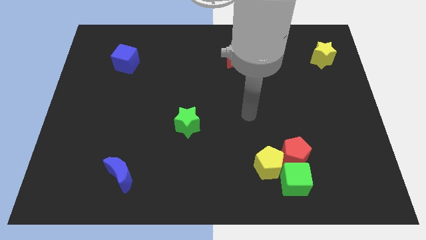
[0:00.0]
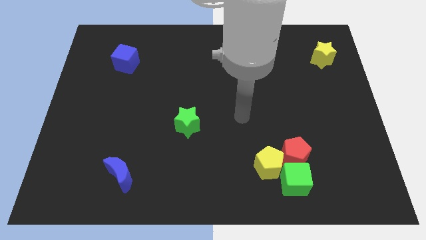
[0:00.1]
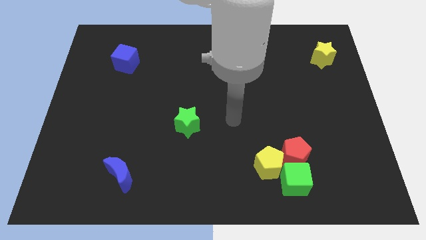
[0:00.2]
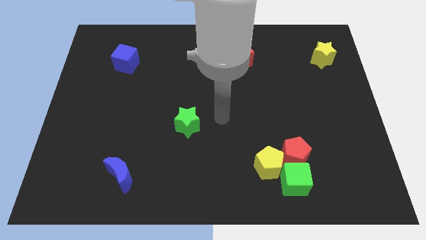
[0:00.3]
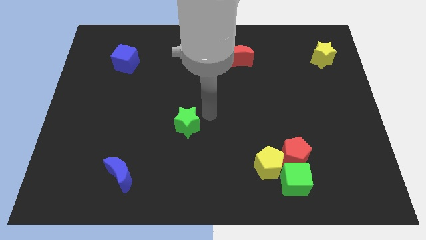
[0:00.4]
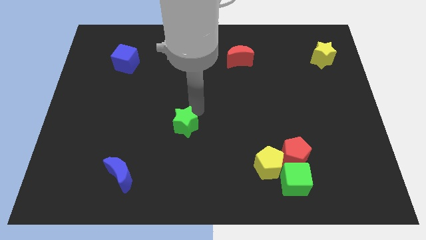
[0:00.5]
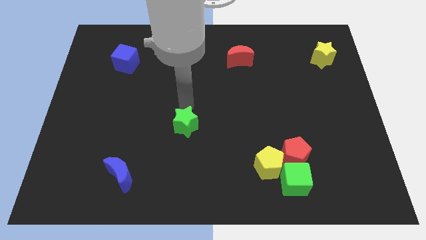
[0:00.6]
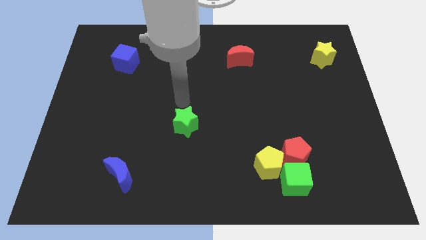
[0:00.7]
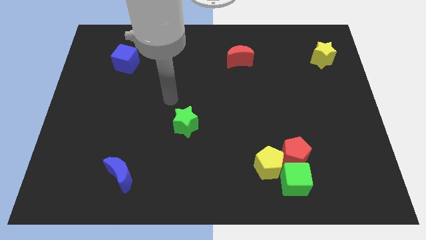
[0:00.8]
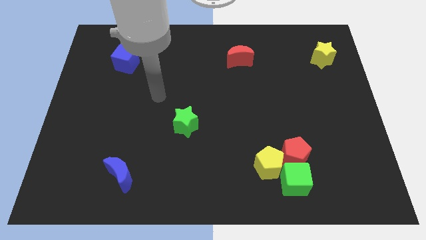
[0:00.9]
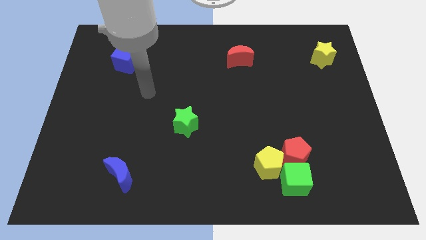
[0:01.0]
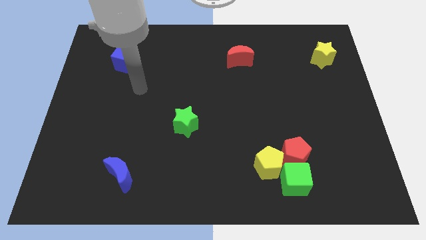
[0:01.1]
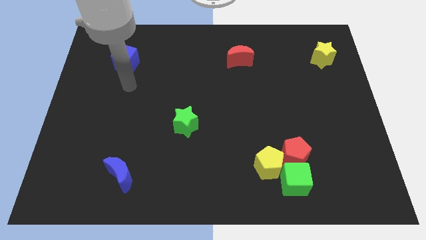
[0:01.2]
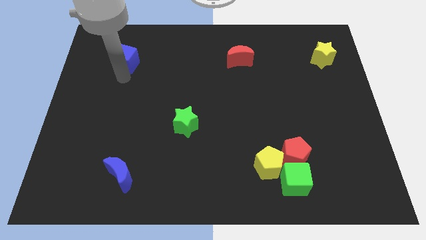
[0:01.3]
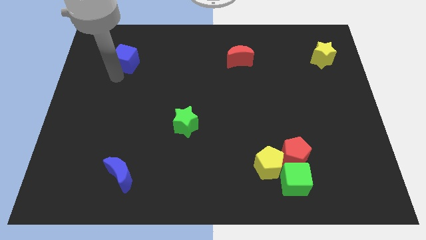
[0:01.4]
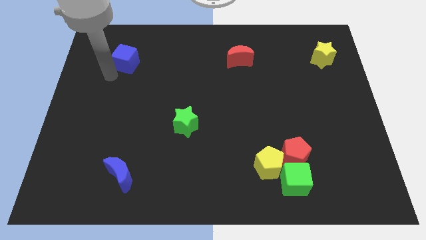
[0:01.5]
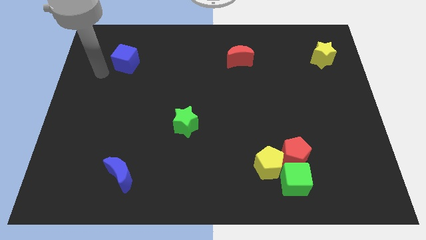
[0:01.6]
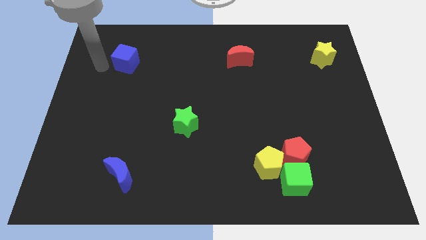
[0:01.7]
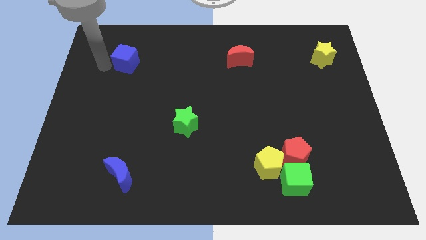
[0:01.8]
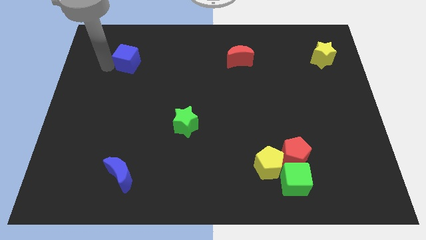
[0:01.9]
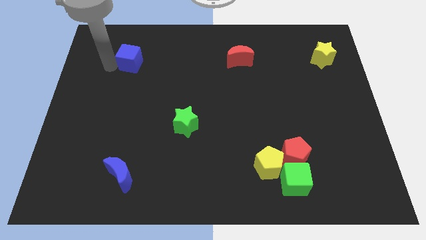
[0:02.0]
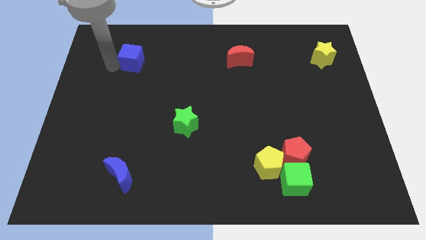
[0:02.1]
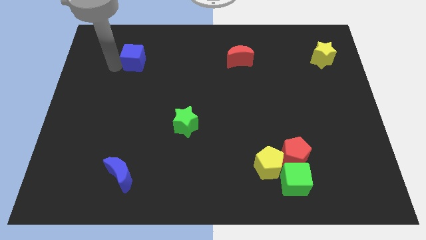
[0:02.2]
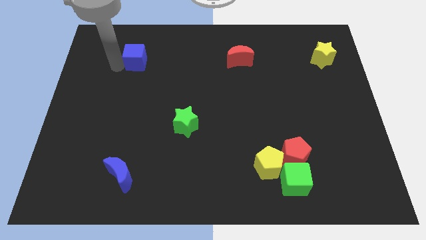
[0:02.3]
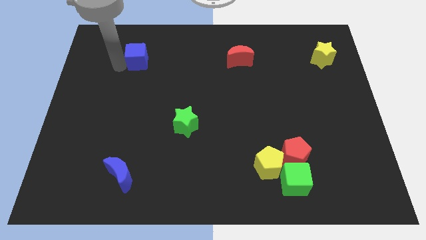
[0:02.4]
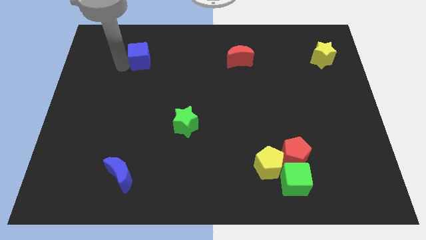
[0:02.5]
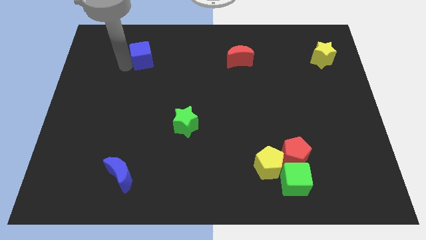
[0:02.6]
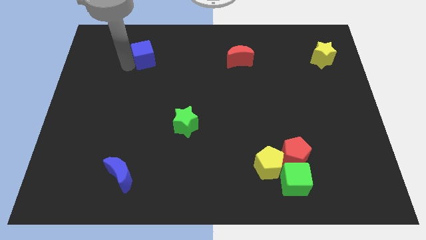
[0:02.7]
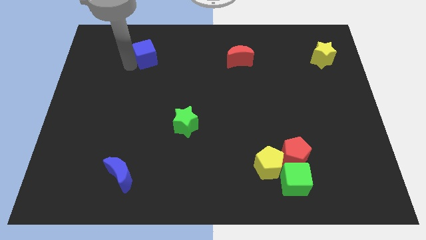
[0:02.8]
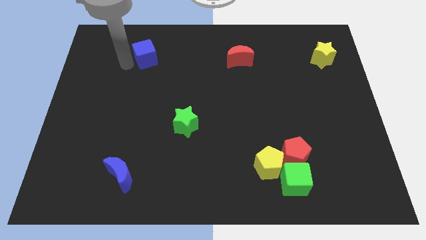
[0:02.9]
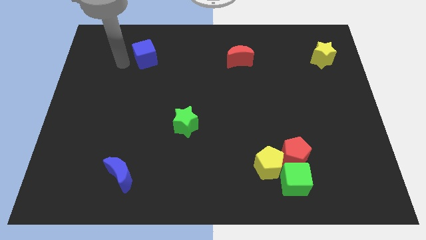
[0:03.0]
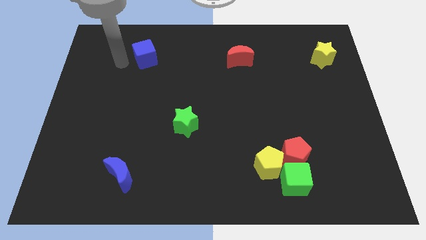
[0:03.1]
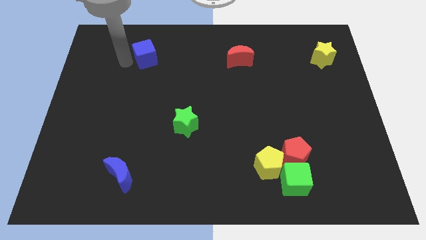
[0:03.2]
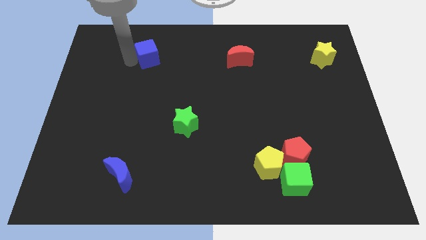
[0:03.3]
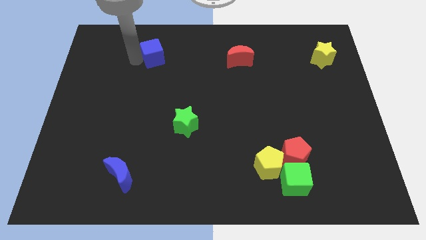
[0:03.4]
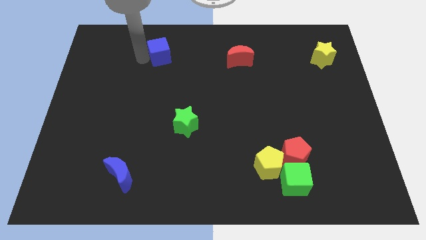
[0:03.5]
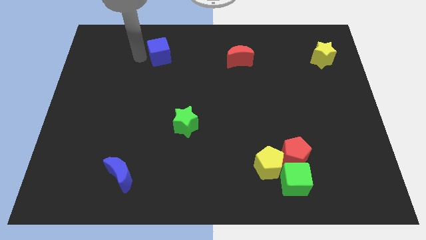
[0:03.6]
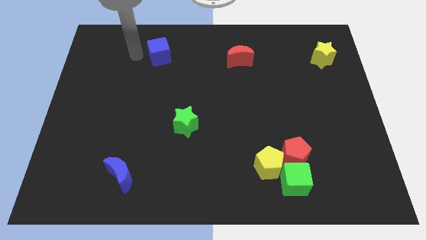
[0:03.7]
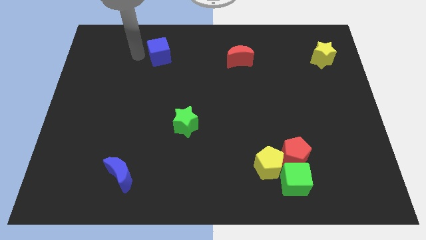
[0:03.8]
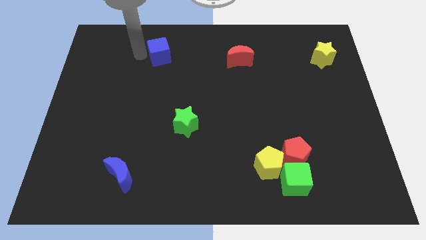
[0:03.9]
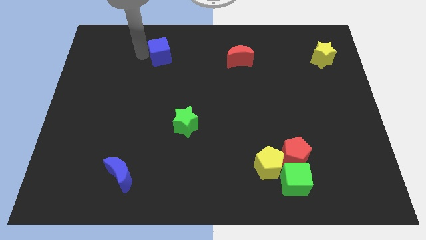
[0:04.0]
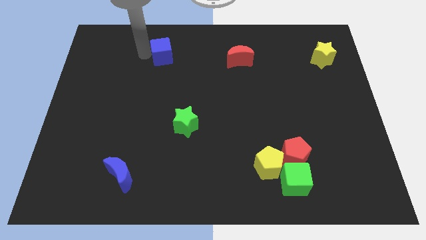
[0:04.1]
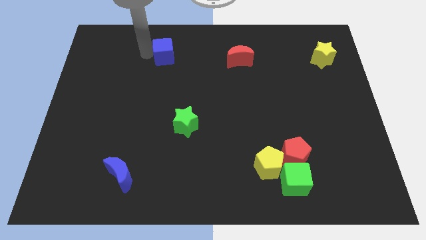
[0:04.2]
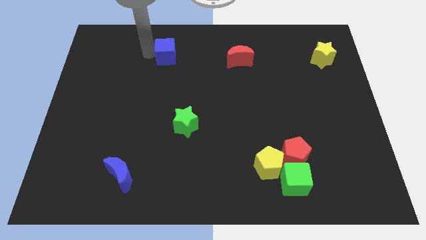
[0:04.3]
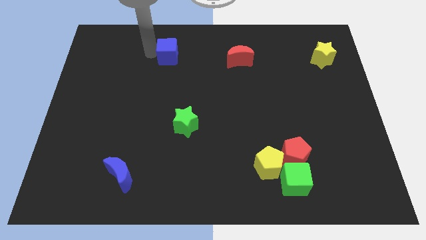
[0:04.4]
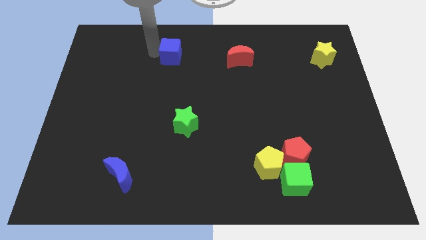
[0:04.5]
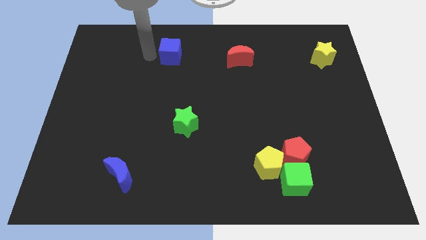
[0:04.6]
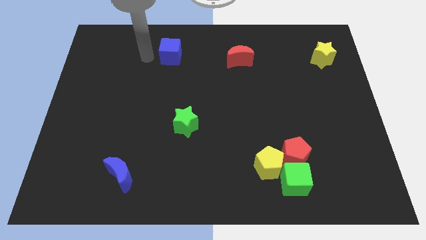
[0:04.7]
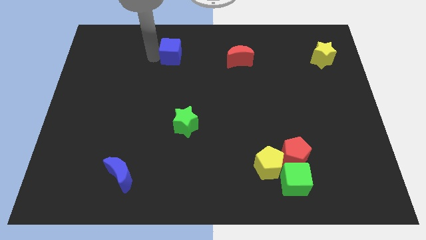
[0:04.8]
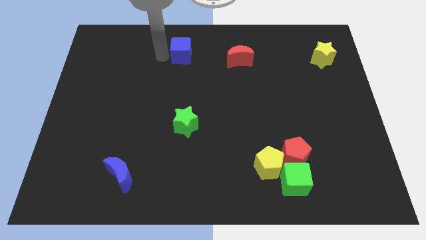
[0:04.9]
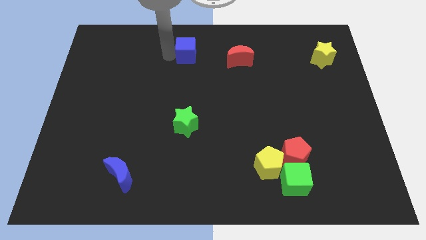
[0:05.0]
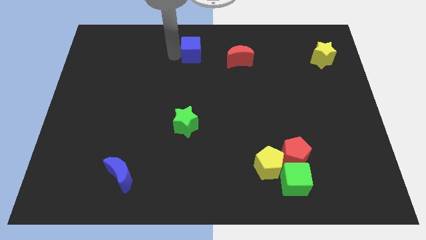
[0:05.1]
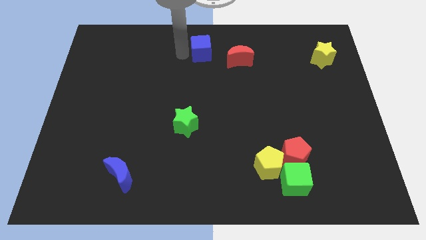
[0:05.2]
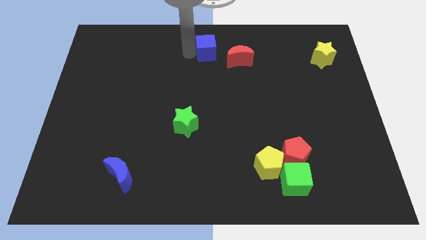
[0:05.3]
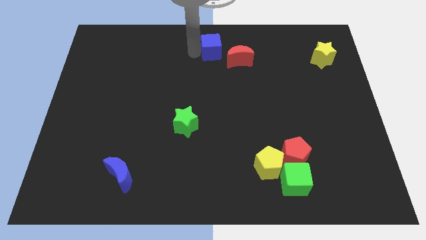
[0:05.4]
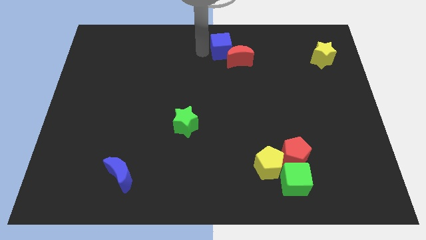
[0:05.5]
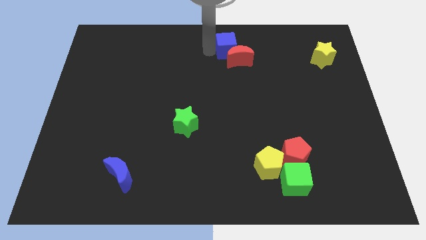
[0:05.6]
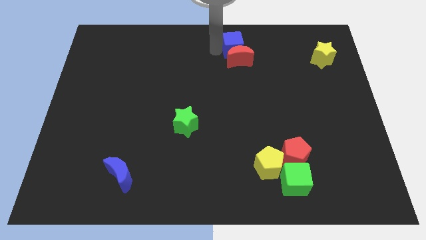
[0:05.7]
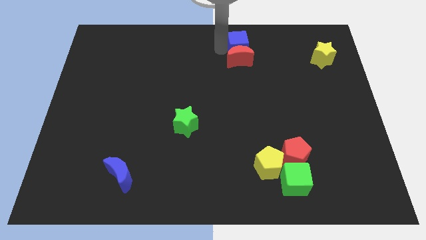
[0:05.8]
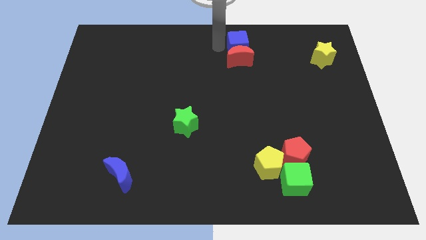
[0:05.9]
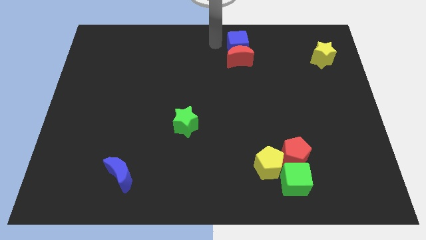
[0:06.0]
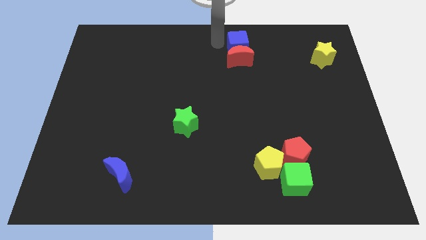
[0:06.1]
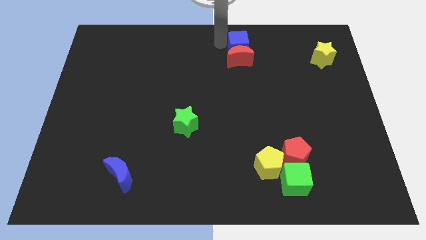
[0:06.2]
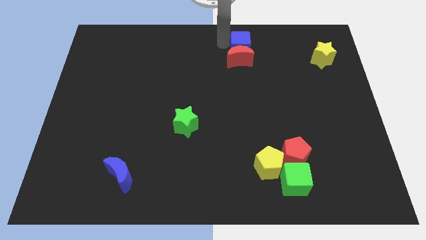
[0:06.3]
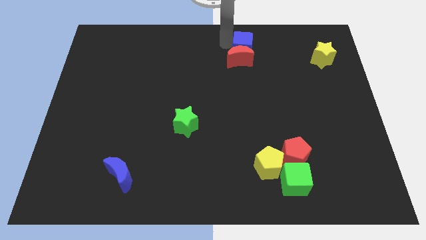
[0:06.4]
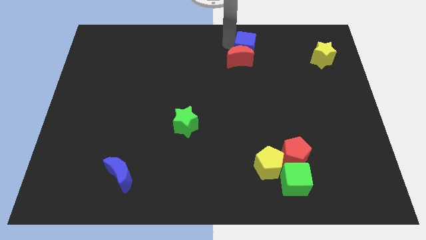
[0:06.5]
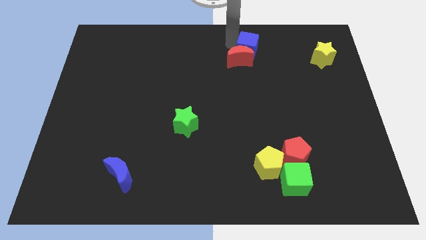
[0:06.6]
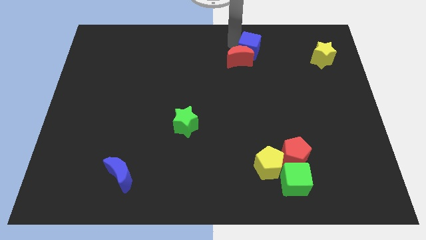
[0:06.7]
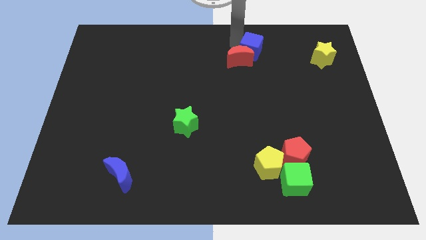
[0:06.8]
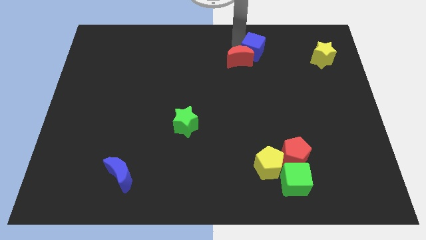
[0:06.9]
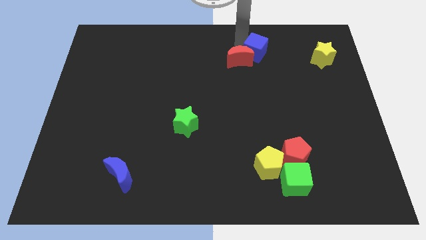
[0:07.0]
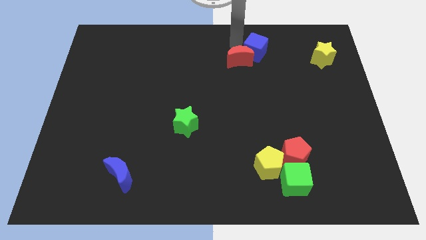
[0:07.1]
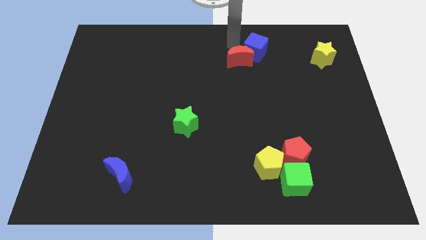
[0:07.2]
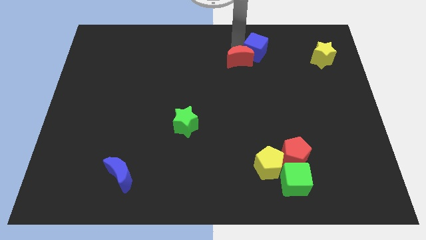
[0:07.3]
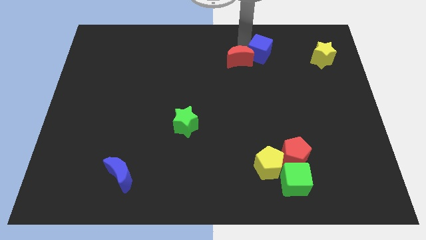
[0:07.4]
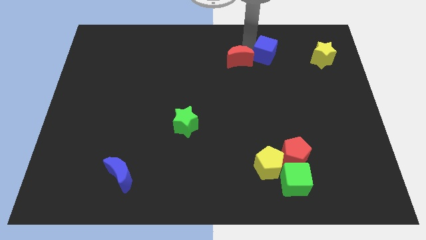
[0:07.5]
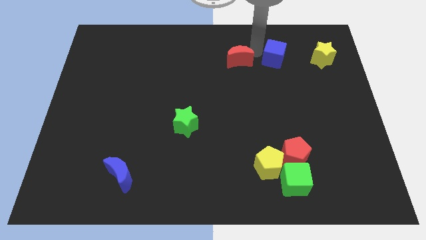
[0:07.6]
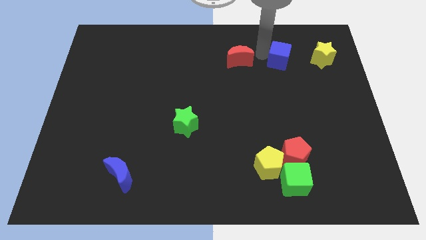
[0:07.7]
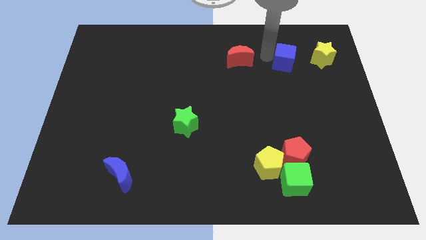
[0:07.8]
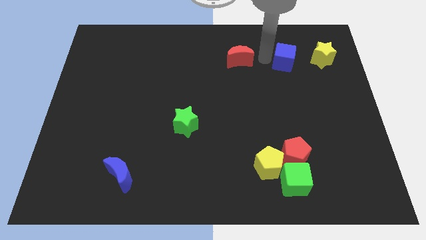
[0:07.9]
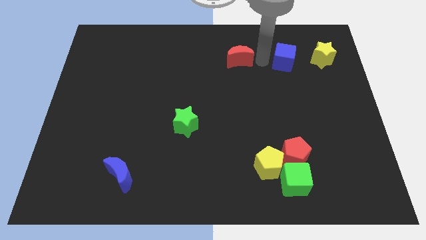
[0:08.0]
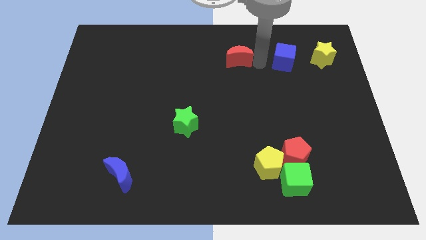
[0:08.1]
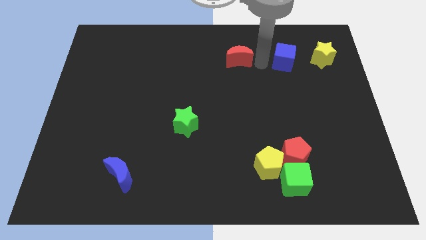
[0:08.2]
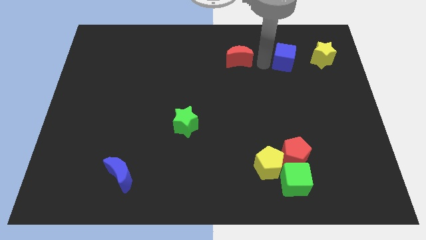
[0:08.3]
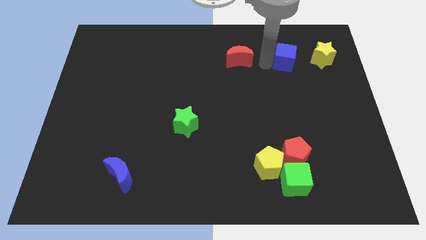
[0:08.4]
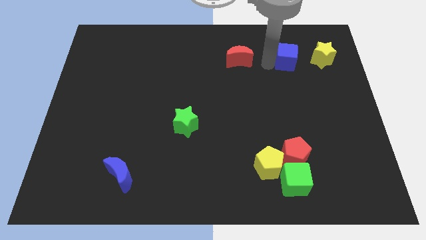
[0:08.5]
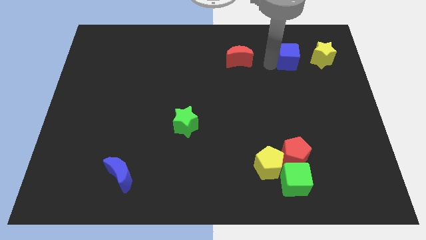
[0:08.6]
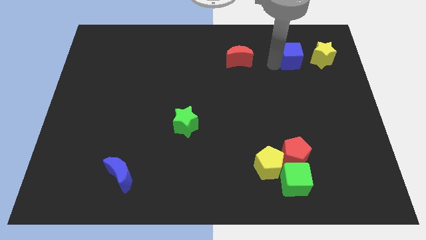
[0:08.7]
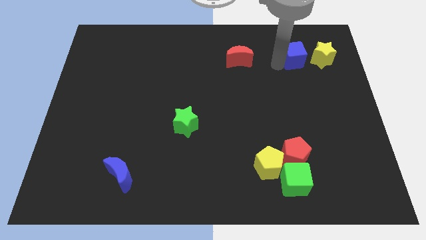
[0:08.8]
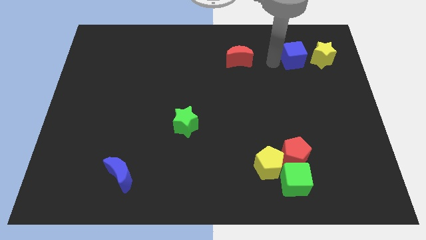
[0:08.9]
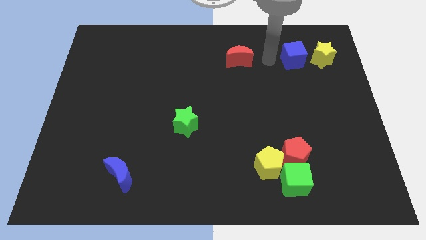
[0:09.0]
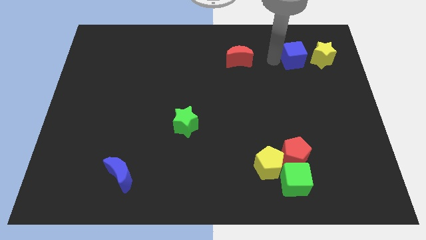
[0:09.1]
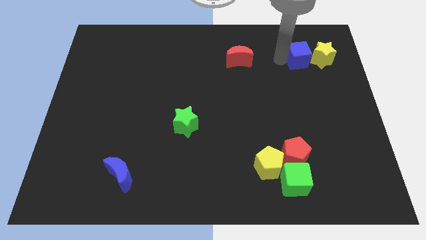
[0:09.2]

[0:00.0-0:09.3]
put the blue cube to the yellow star
